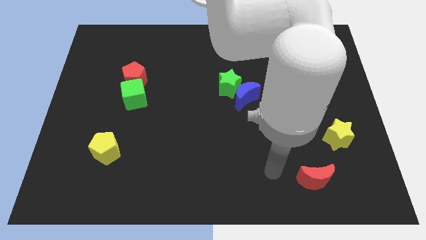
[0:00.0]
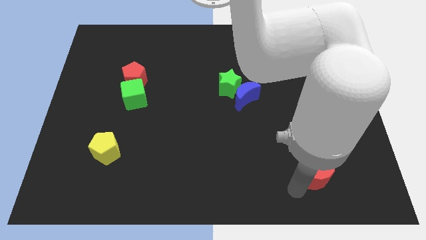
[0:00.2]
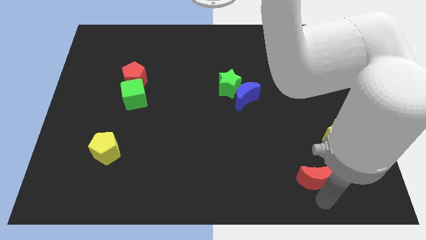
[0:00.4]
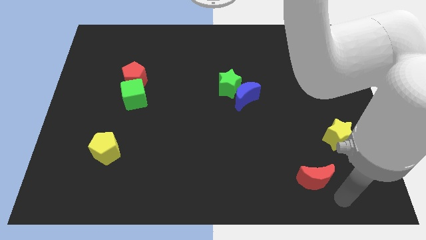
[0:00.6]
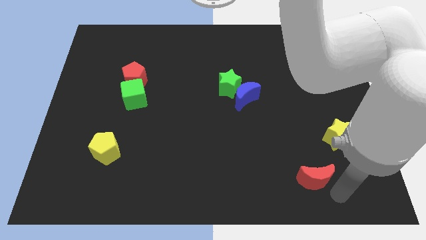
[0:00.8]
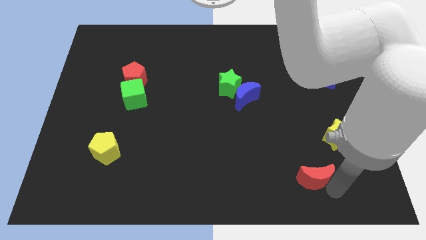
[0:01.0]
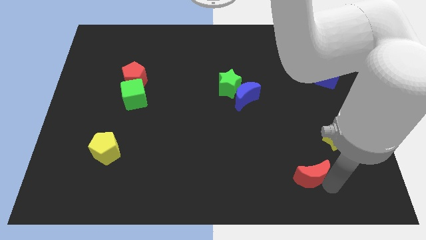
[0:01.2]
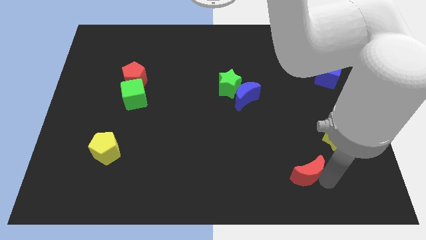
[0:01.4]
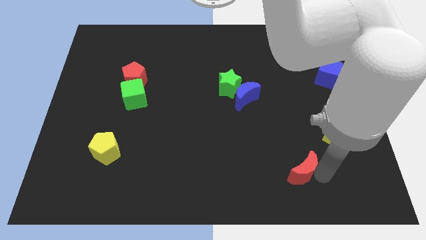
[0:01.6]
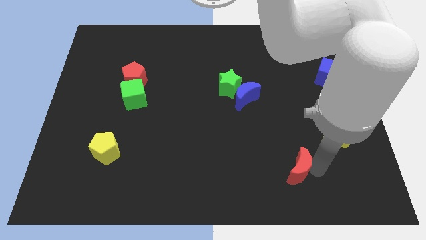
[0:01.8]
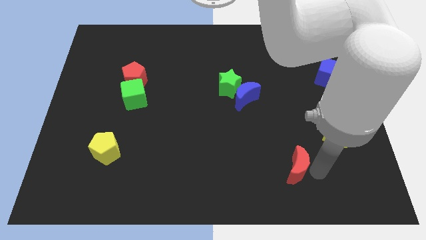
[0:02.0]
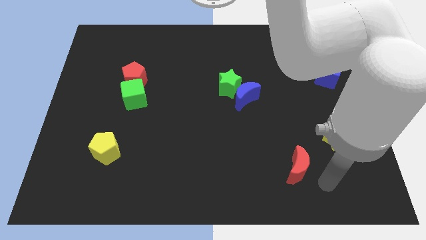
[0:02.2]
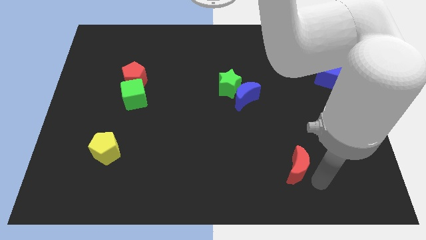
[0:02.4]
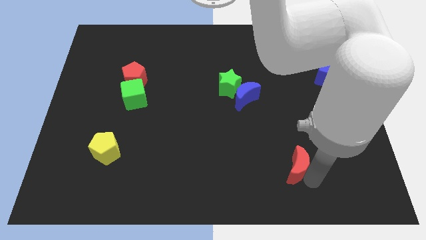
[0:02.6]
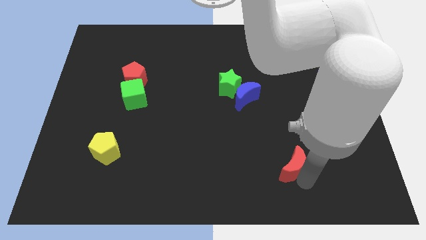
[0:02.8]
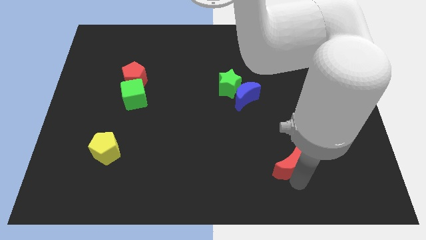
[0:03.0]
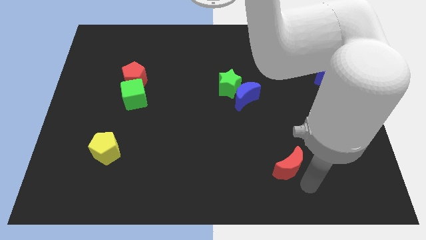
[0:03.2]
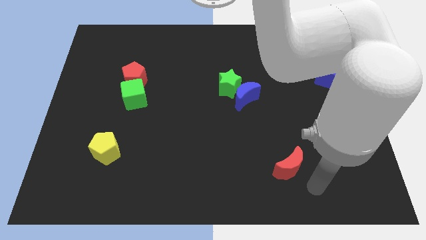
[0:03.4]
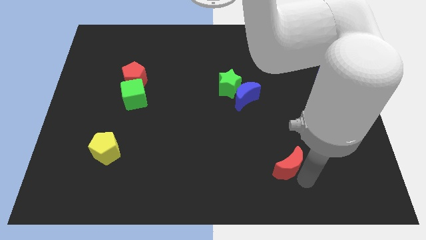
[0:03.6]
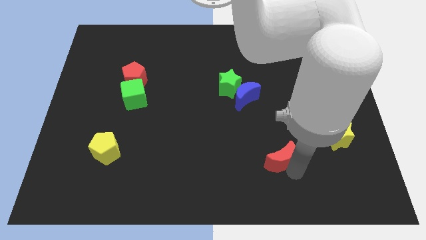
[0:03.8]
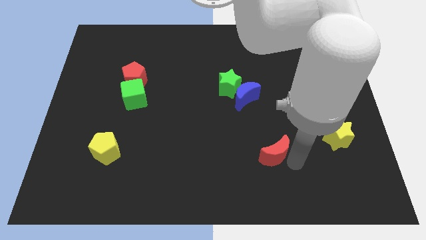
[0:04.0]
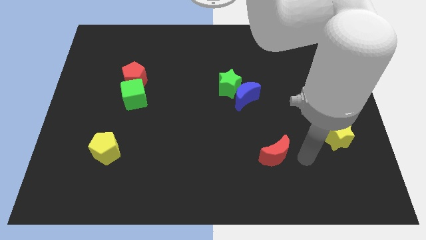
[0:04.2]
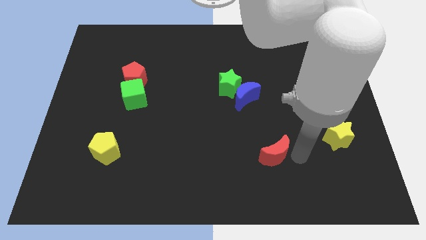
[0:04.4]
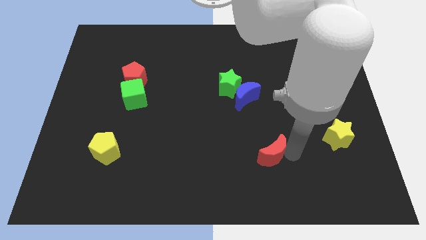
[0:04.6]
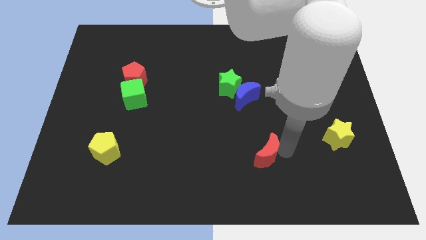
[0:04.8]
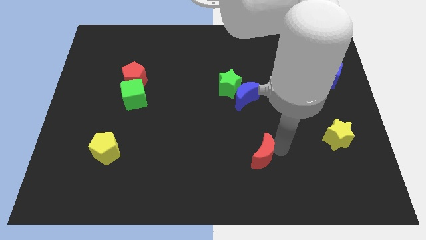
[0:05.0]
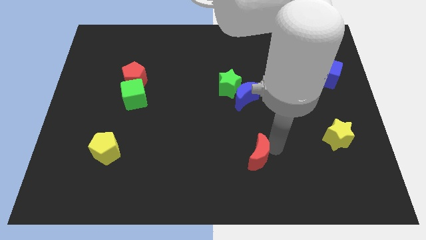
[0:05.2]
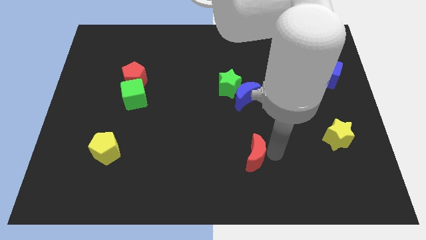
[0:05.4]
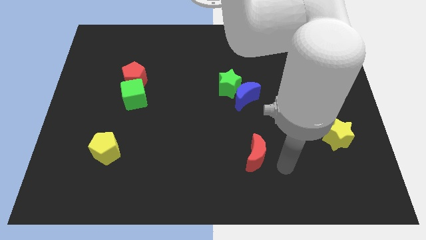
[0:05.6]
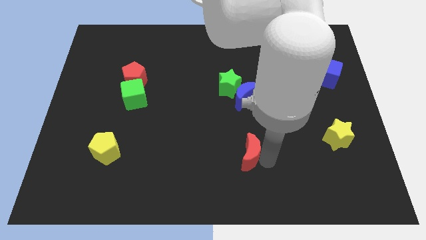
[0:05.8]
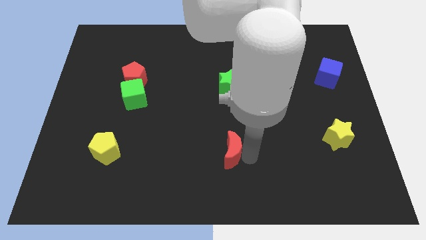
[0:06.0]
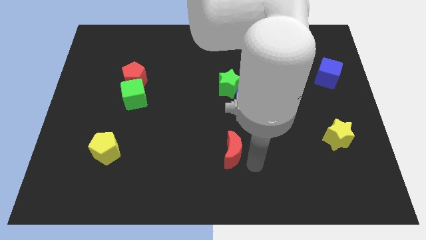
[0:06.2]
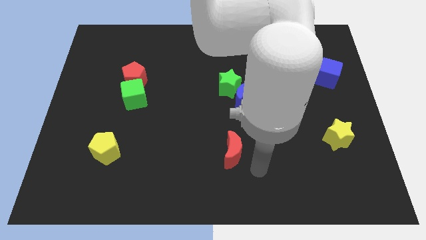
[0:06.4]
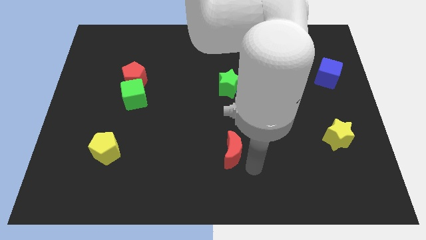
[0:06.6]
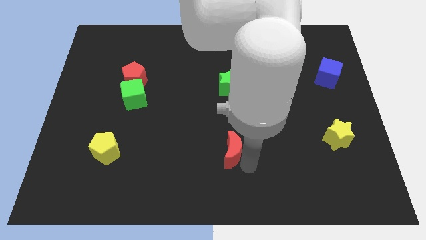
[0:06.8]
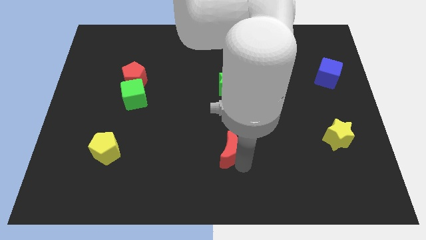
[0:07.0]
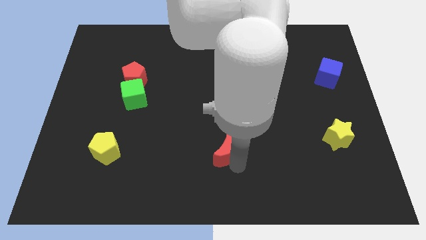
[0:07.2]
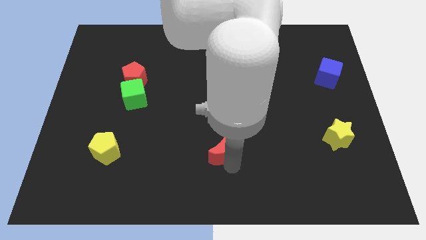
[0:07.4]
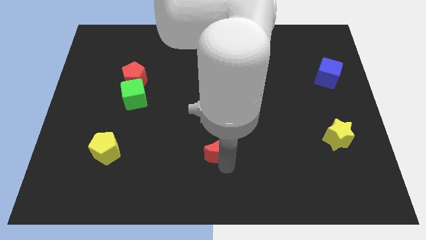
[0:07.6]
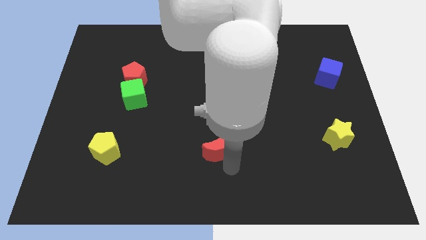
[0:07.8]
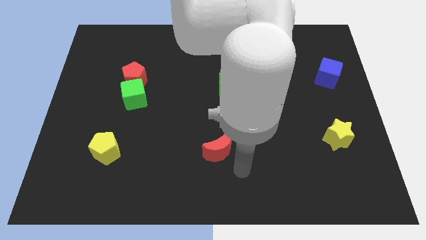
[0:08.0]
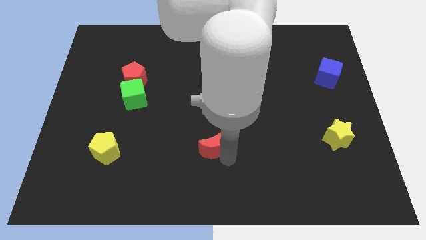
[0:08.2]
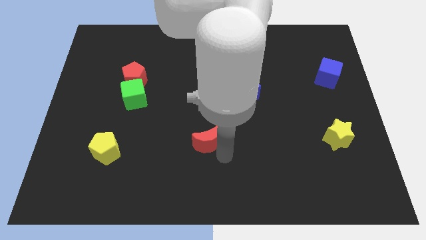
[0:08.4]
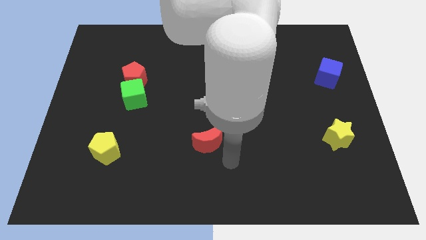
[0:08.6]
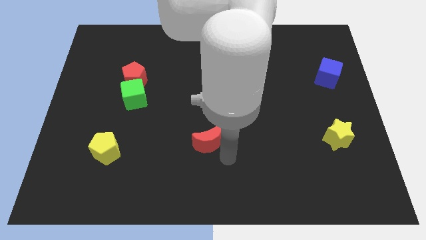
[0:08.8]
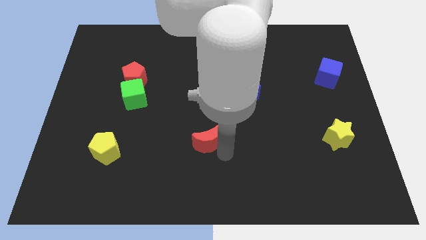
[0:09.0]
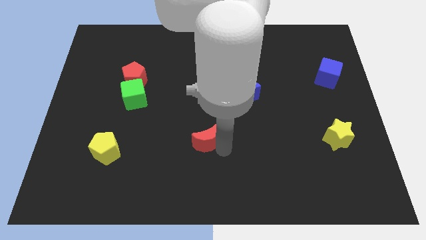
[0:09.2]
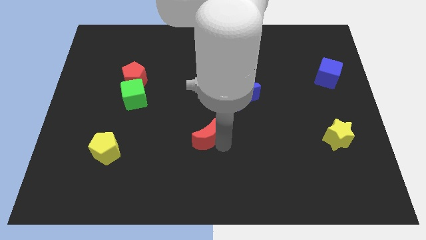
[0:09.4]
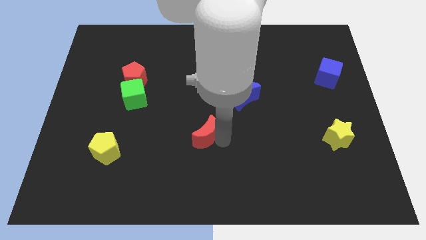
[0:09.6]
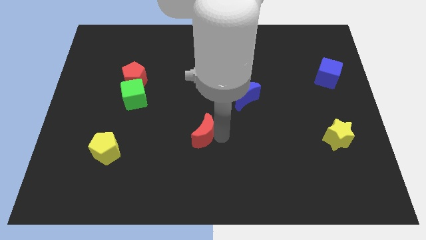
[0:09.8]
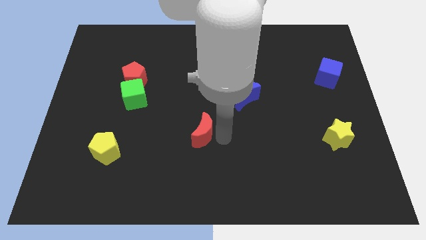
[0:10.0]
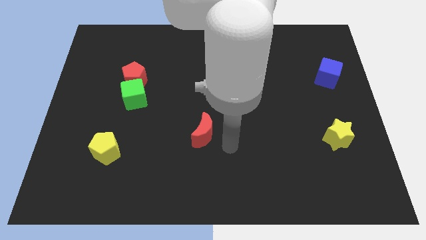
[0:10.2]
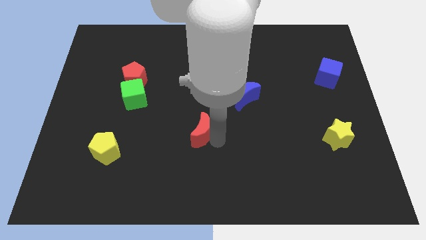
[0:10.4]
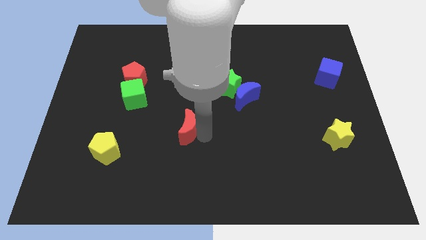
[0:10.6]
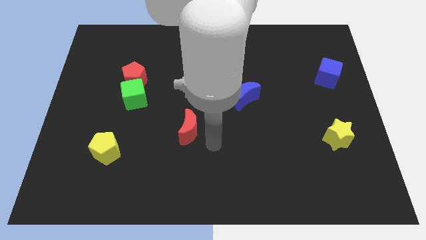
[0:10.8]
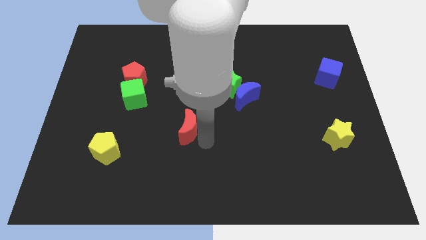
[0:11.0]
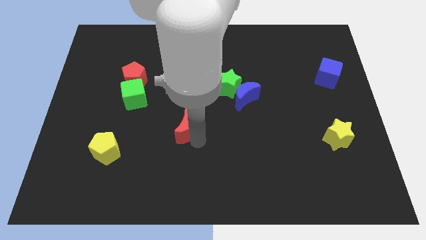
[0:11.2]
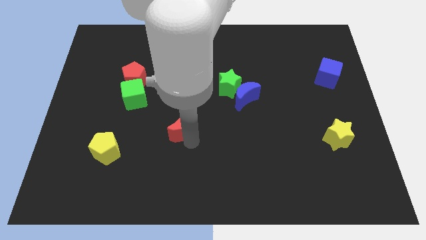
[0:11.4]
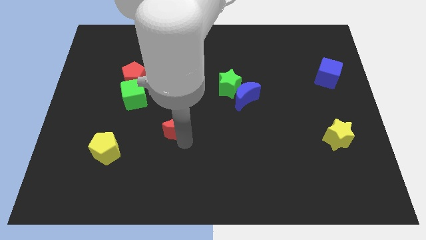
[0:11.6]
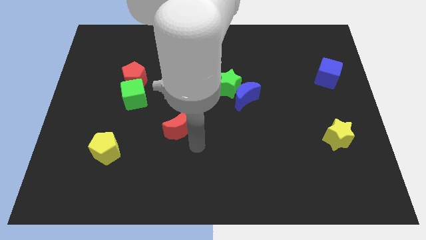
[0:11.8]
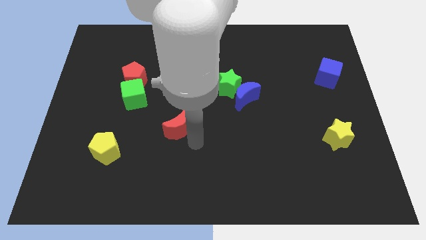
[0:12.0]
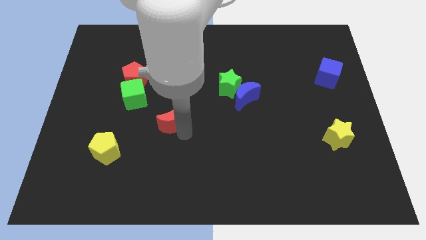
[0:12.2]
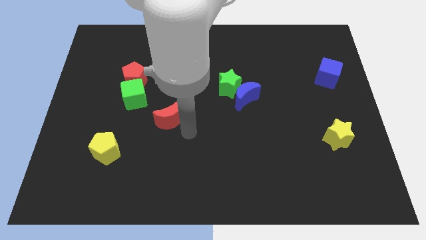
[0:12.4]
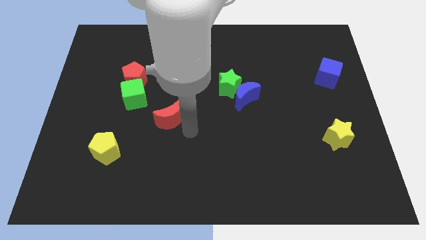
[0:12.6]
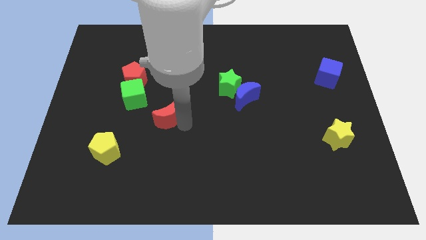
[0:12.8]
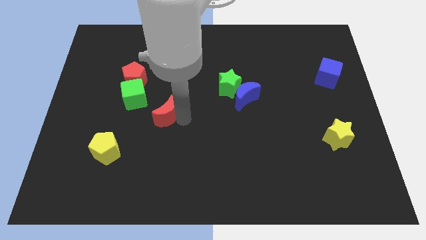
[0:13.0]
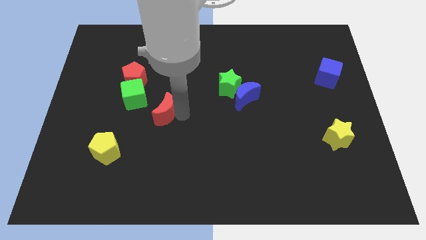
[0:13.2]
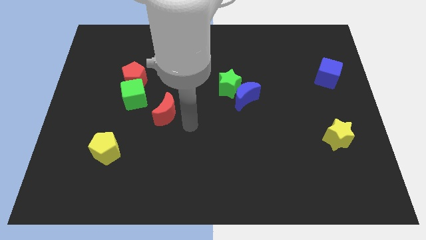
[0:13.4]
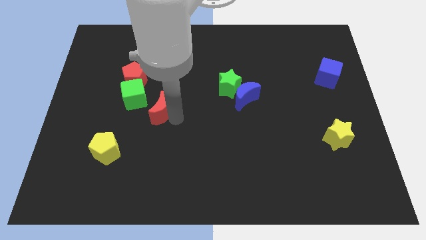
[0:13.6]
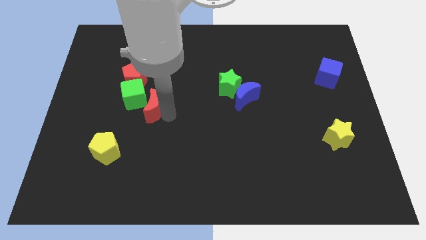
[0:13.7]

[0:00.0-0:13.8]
move the red moon to the green cube
